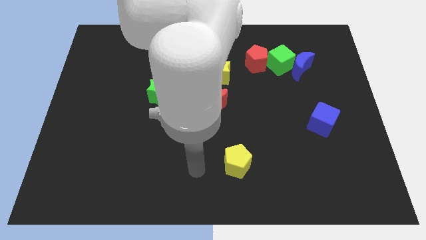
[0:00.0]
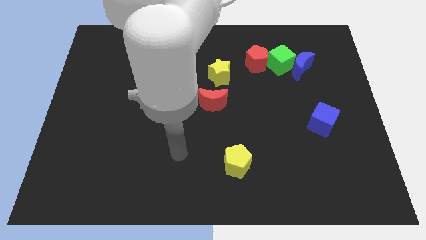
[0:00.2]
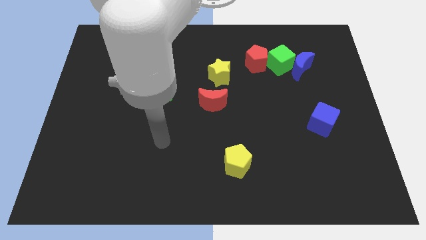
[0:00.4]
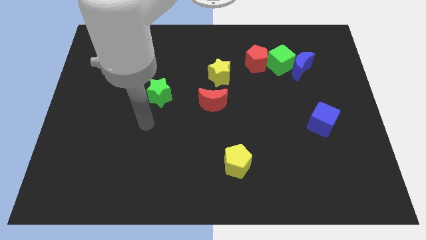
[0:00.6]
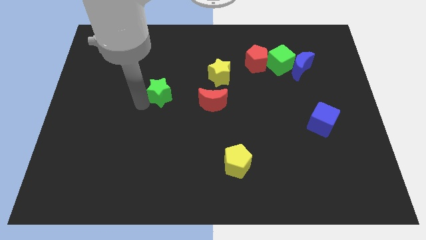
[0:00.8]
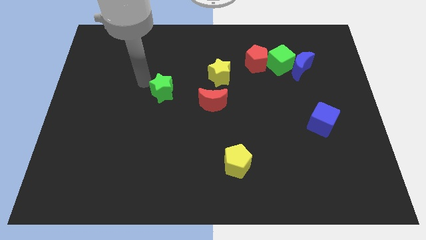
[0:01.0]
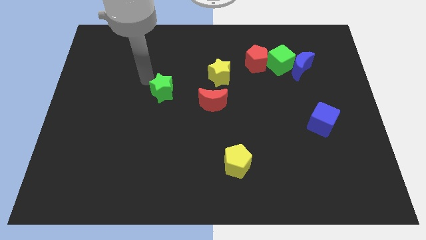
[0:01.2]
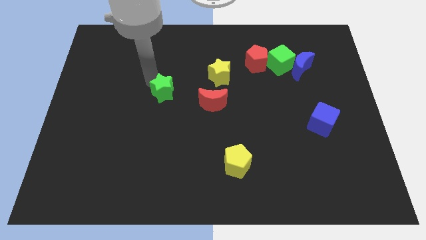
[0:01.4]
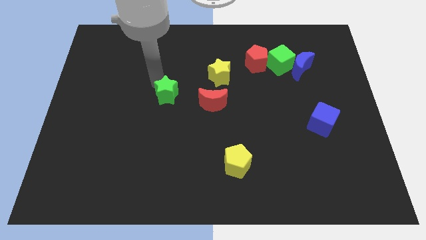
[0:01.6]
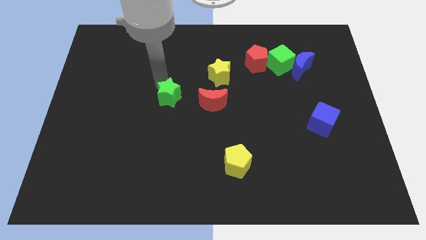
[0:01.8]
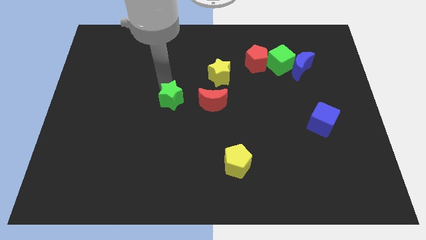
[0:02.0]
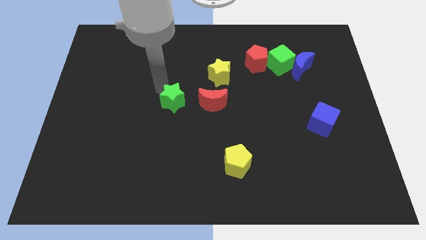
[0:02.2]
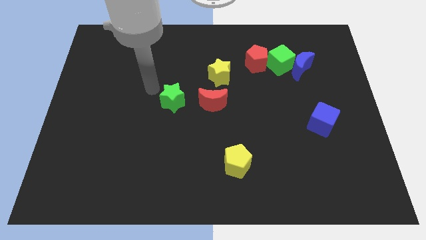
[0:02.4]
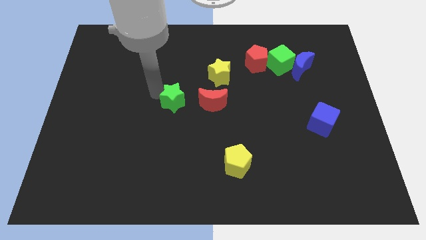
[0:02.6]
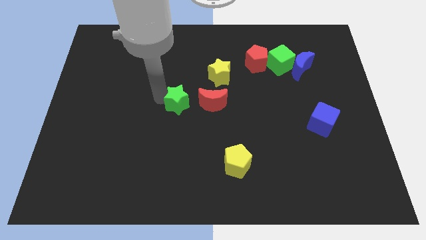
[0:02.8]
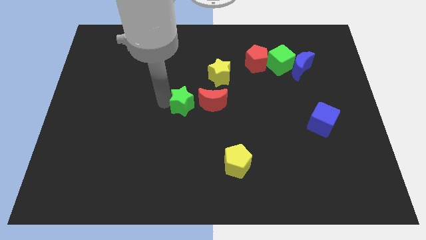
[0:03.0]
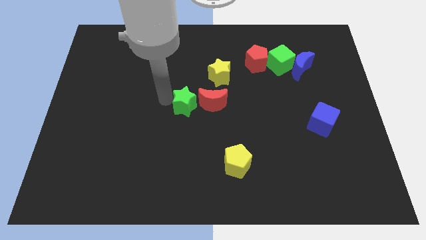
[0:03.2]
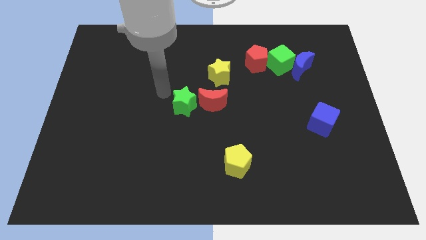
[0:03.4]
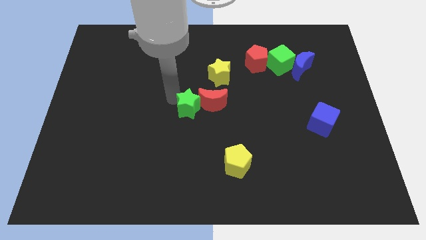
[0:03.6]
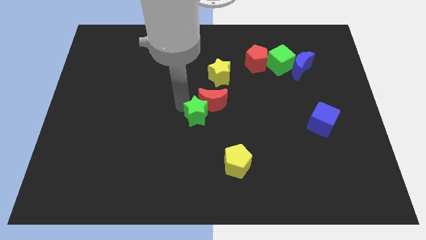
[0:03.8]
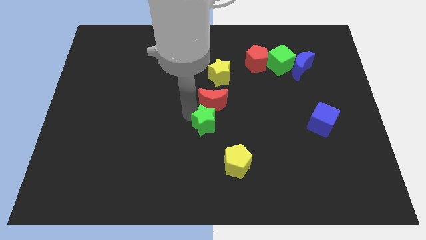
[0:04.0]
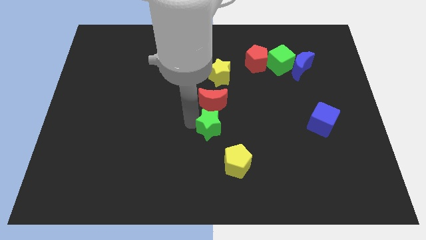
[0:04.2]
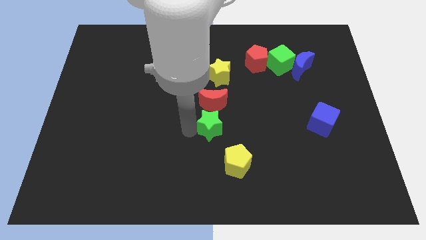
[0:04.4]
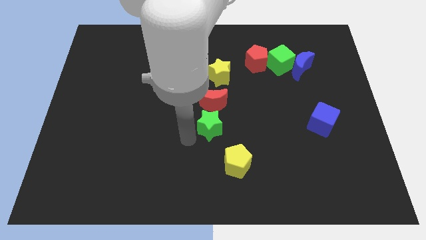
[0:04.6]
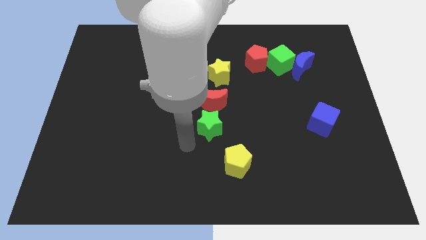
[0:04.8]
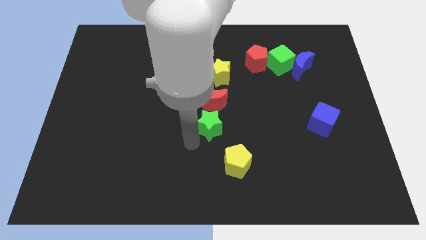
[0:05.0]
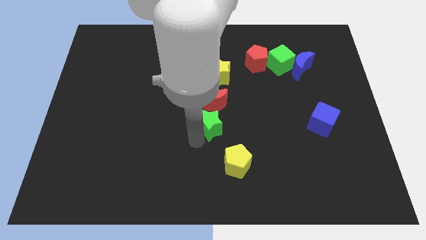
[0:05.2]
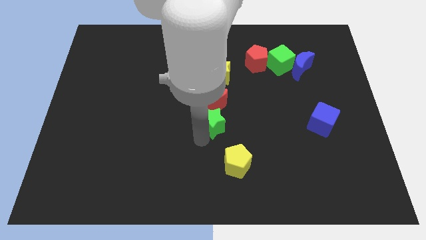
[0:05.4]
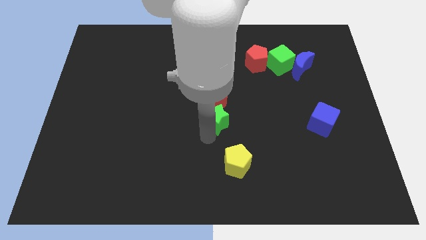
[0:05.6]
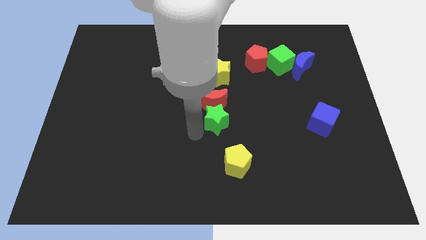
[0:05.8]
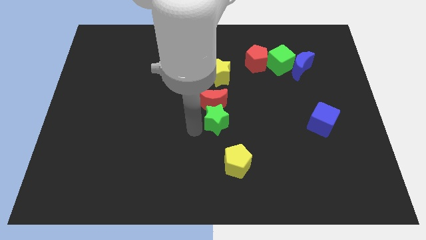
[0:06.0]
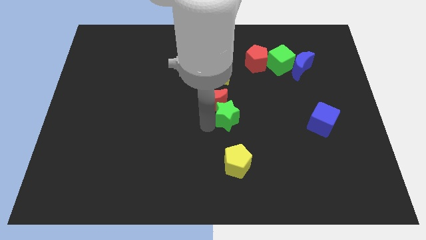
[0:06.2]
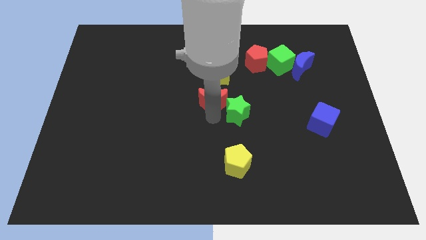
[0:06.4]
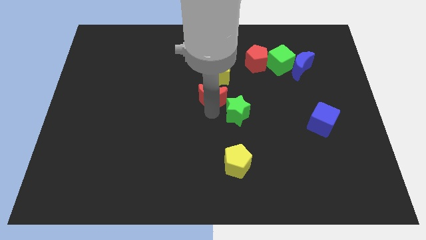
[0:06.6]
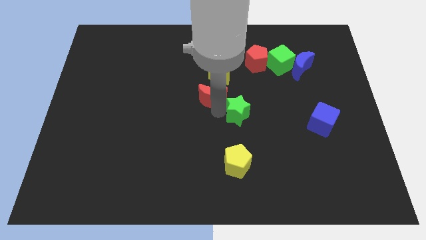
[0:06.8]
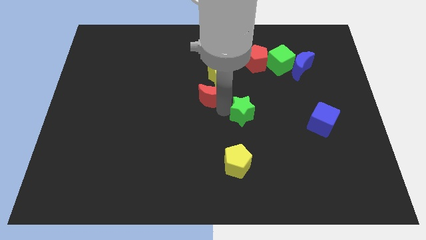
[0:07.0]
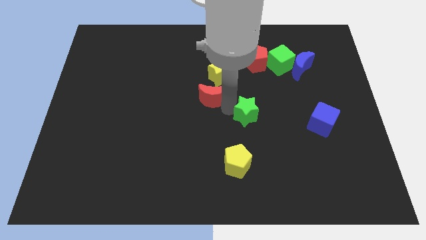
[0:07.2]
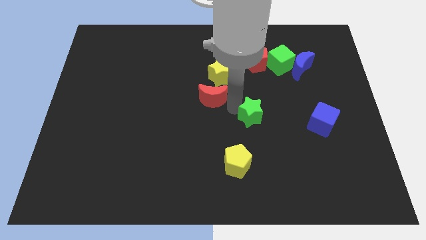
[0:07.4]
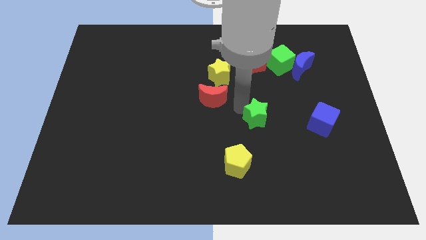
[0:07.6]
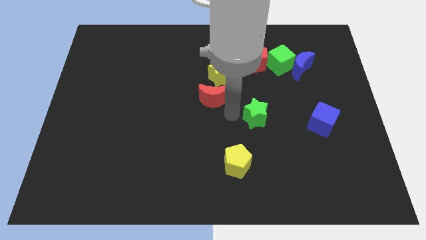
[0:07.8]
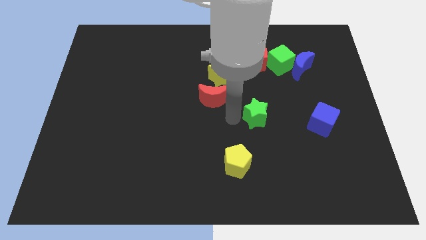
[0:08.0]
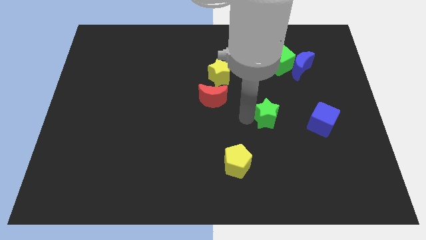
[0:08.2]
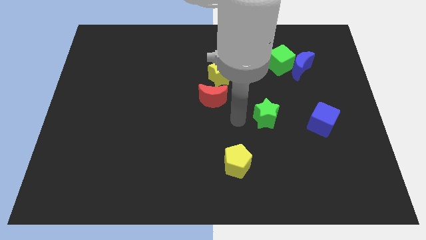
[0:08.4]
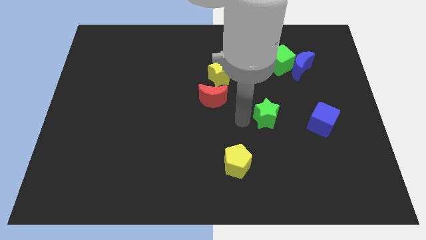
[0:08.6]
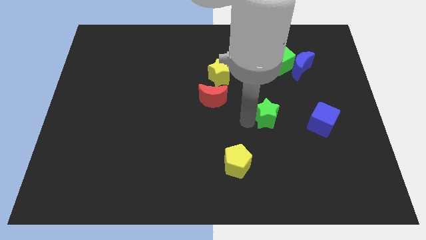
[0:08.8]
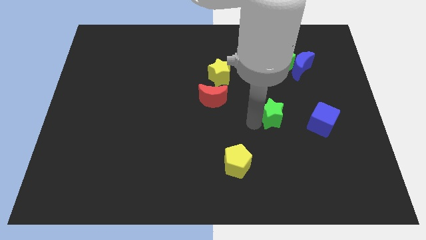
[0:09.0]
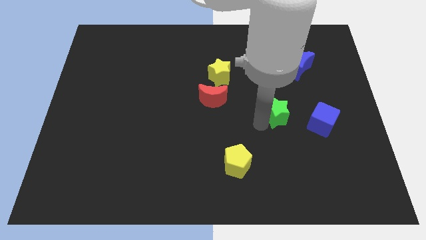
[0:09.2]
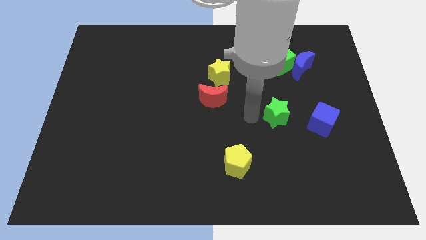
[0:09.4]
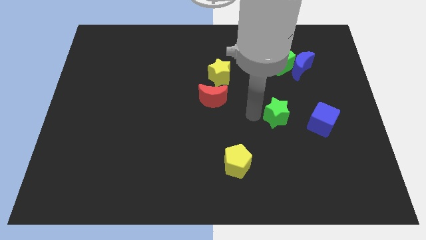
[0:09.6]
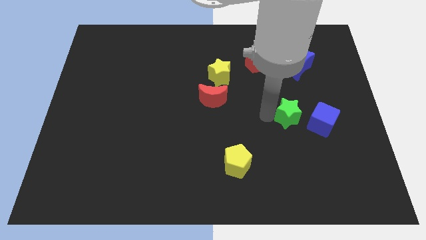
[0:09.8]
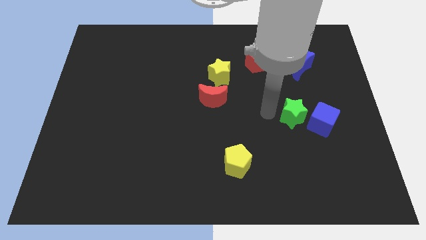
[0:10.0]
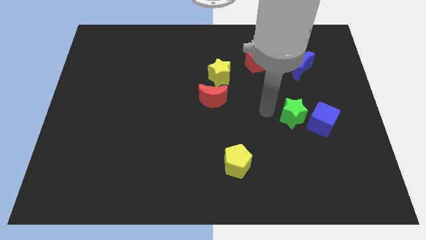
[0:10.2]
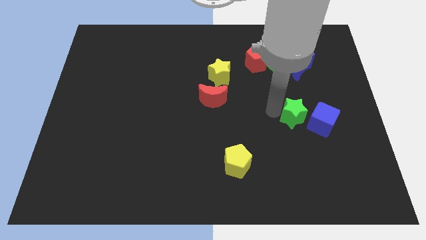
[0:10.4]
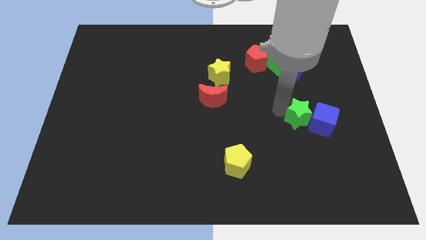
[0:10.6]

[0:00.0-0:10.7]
slide the green star to the blue cube
